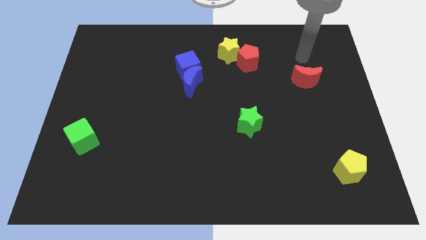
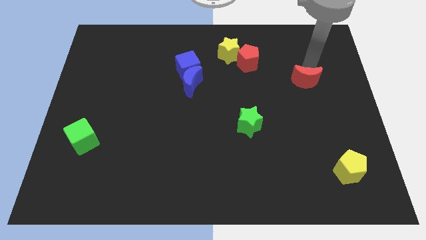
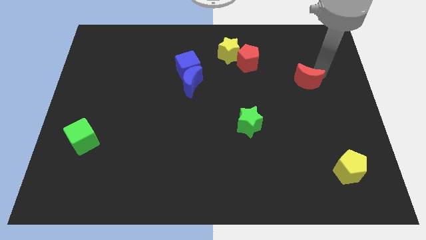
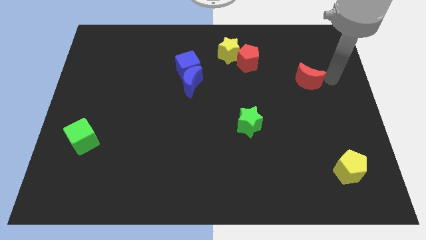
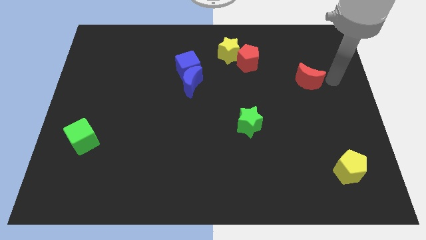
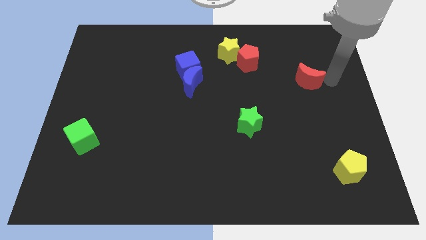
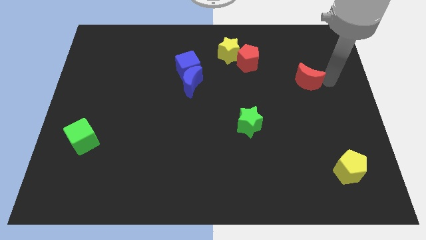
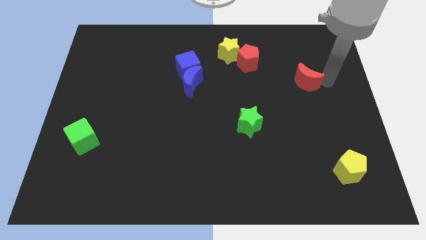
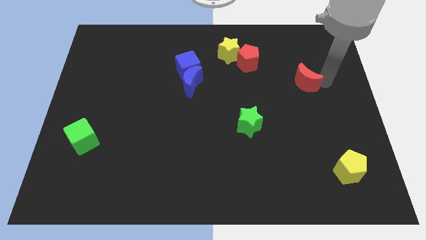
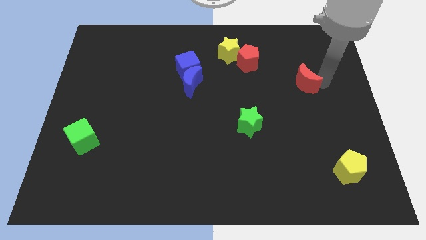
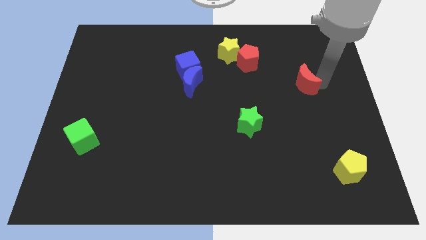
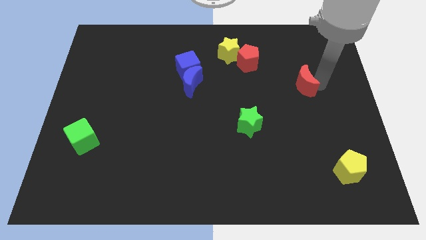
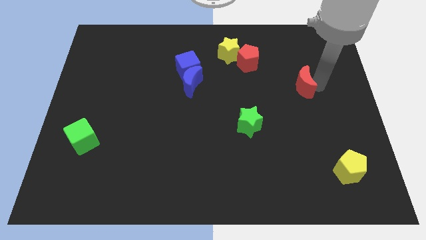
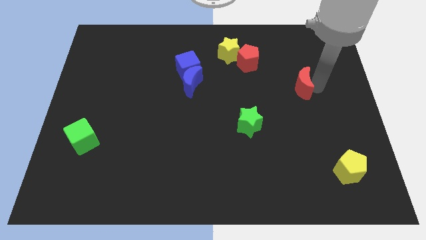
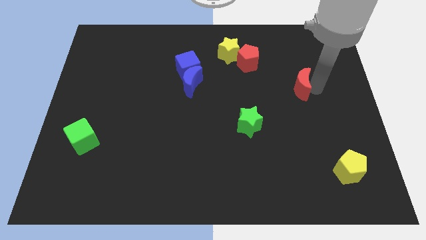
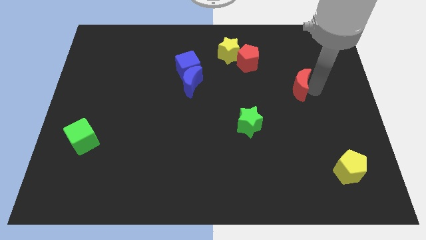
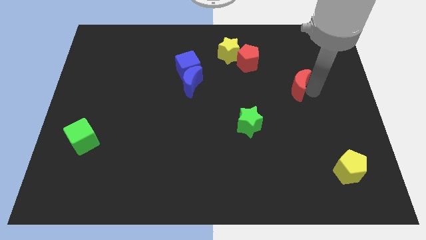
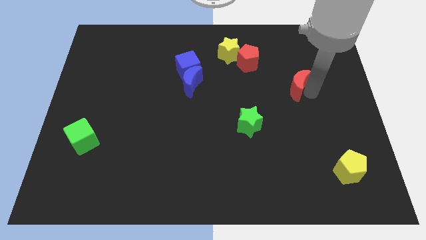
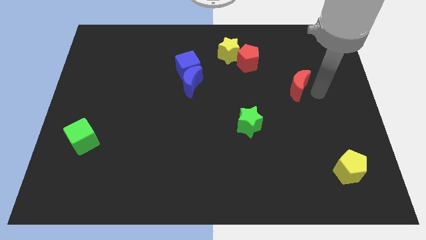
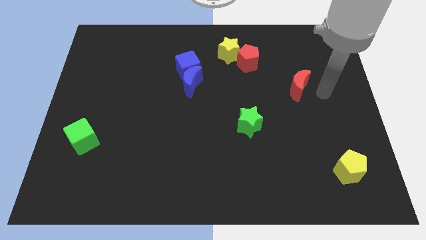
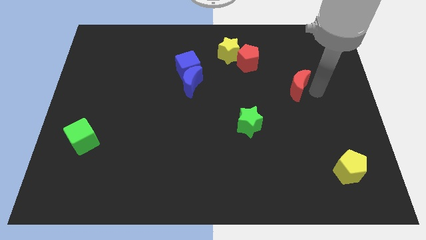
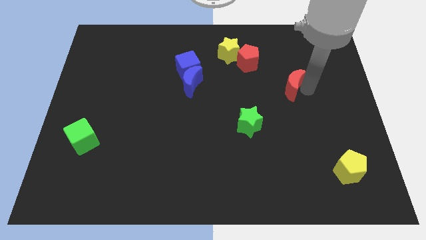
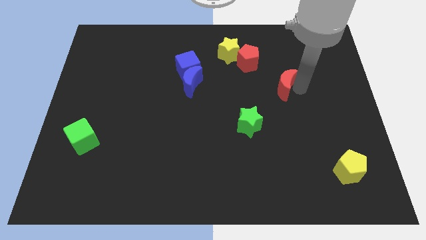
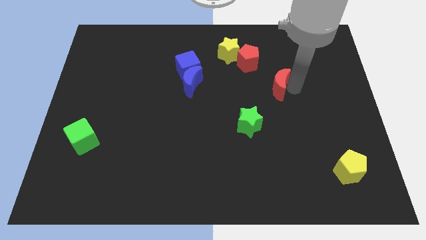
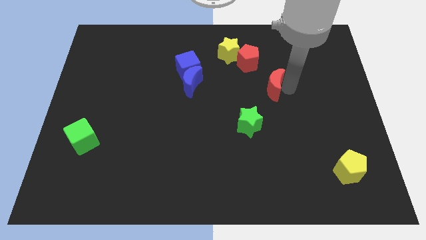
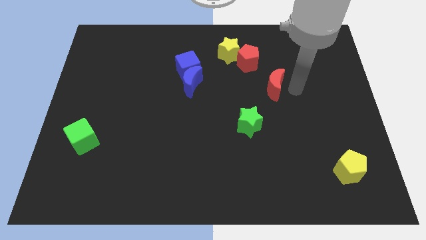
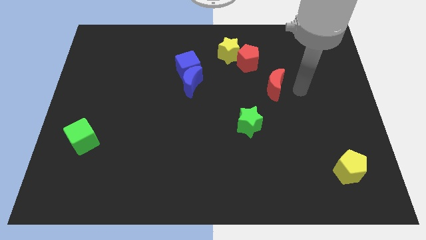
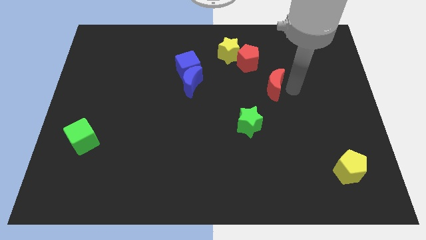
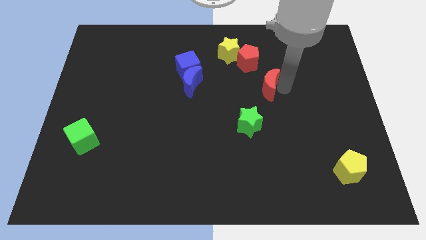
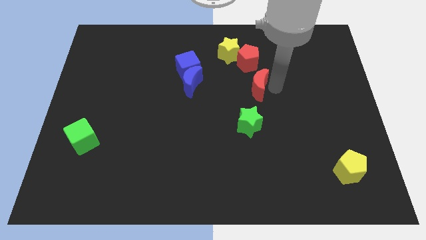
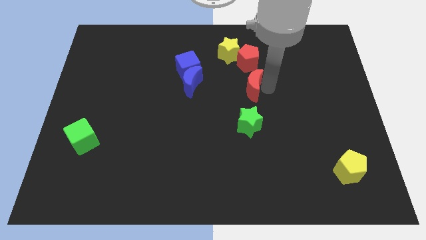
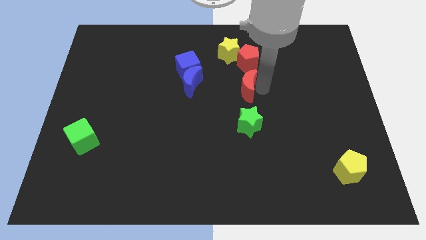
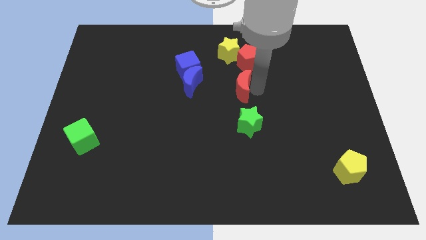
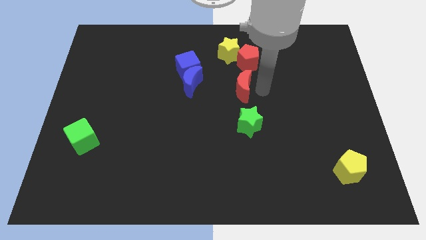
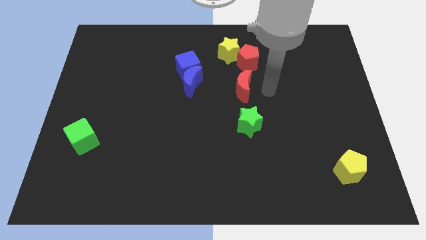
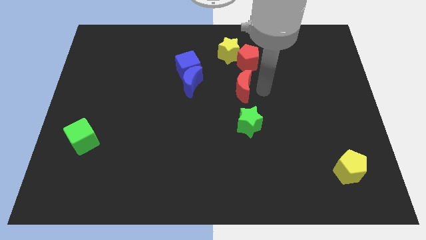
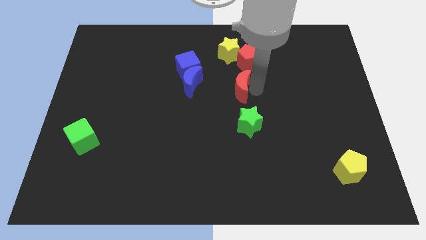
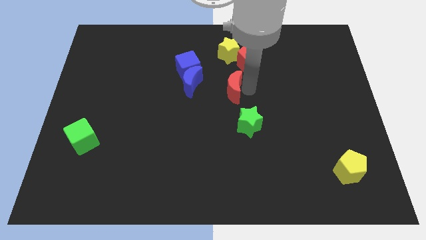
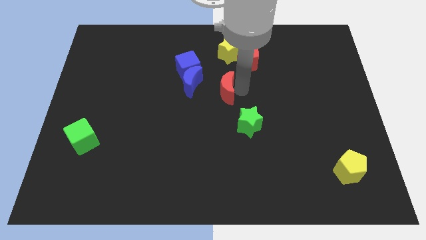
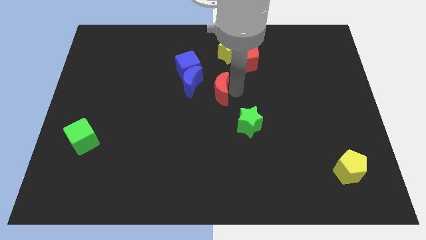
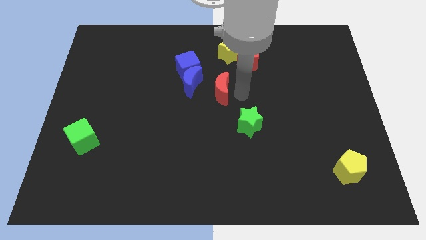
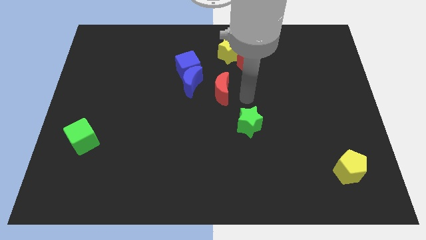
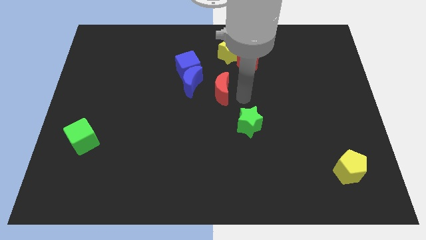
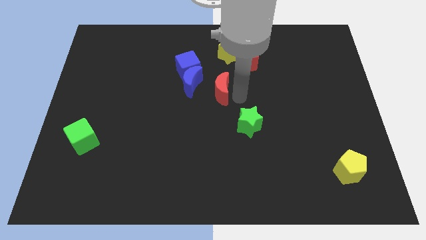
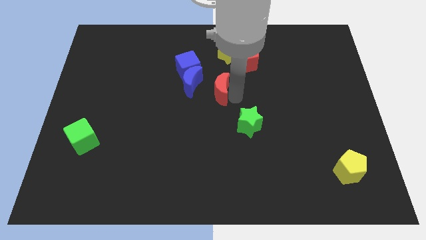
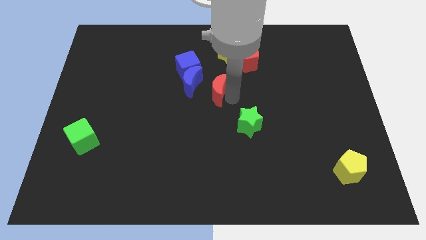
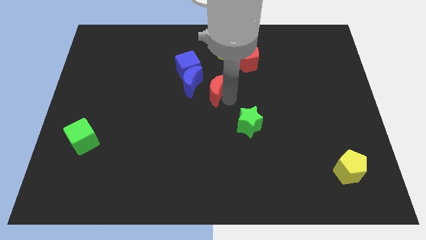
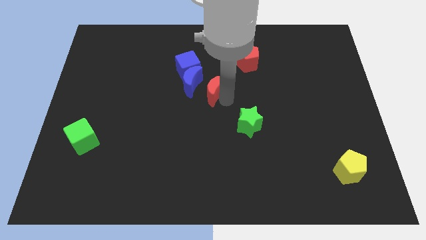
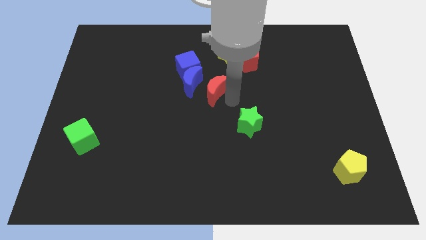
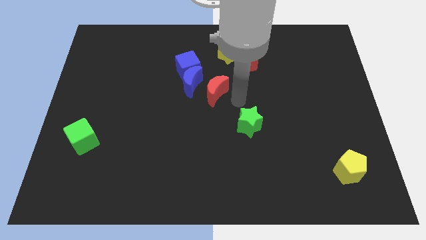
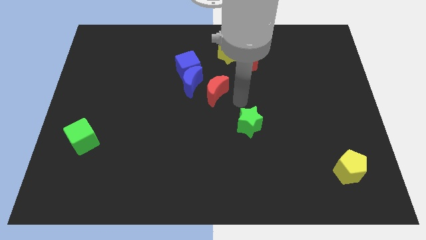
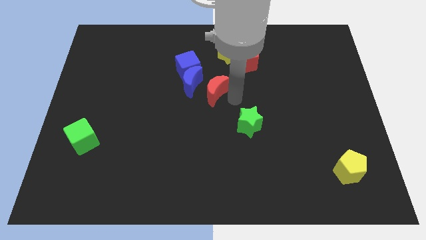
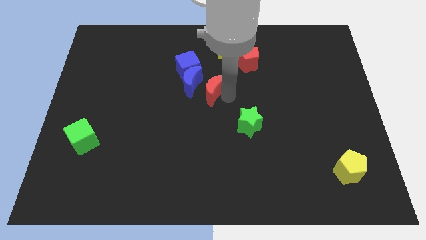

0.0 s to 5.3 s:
push the red moon next to the blue moon

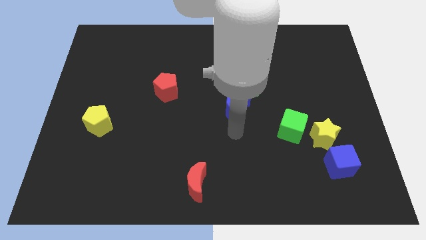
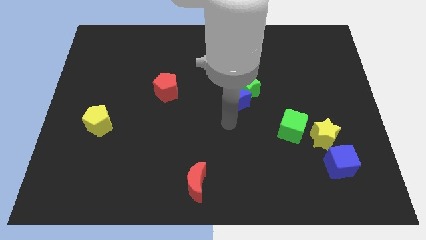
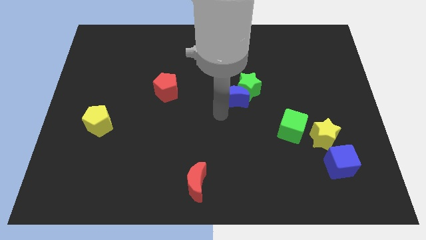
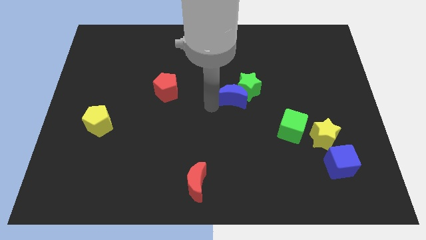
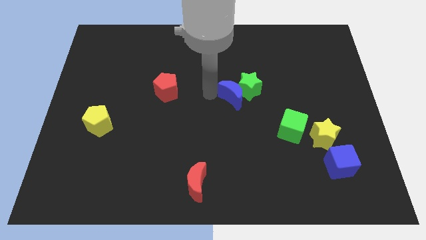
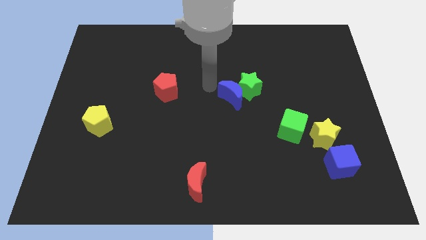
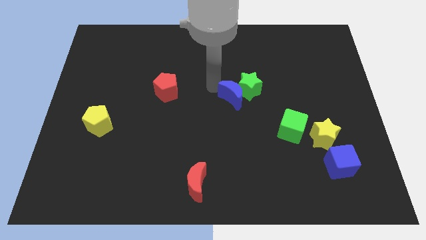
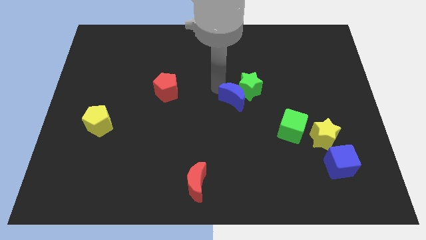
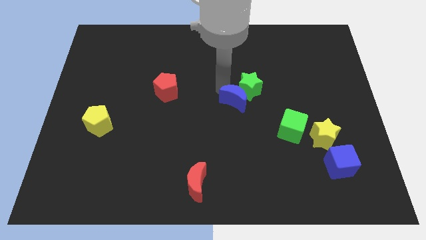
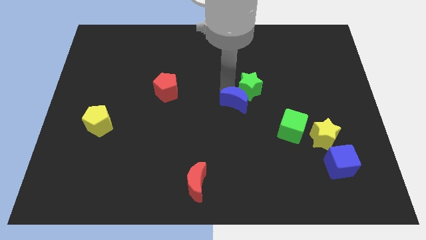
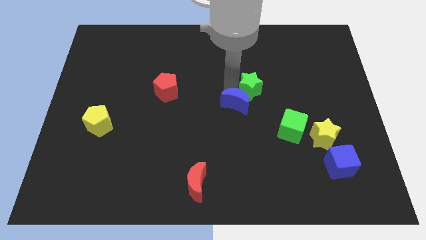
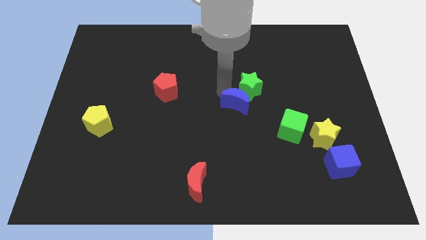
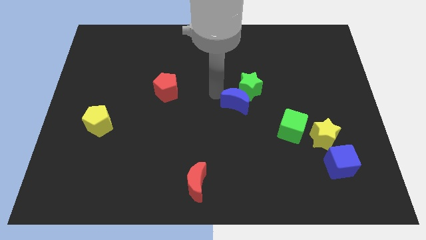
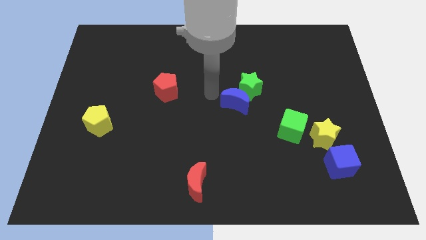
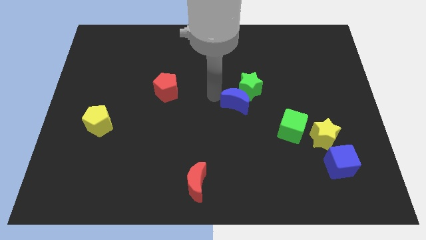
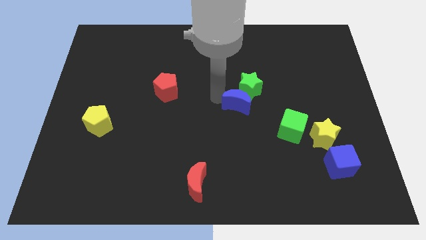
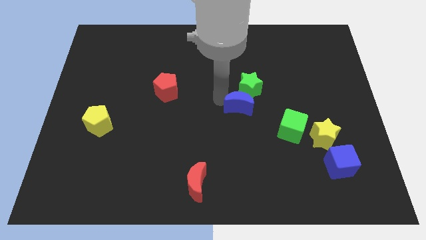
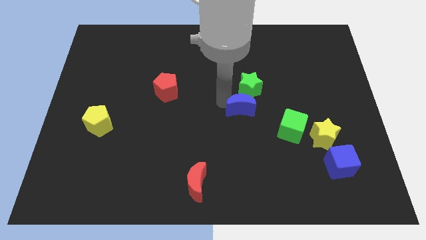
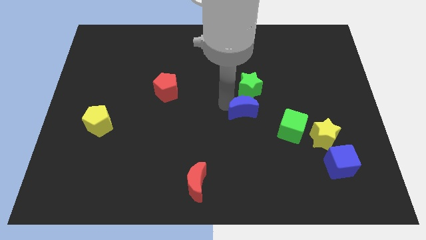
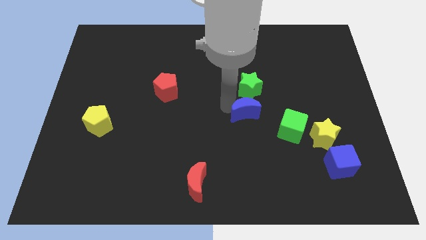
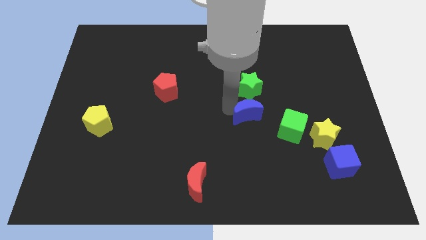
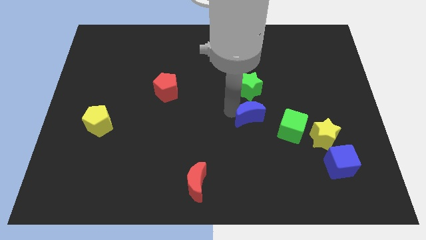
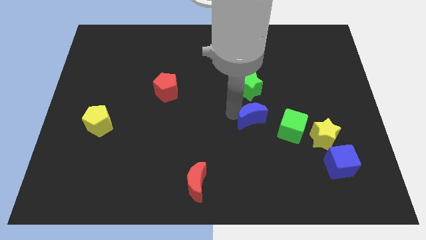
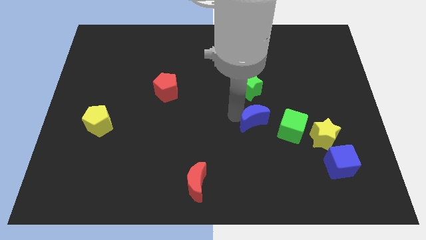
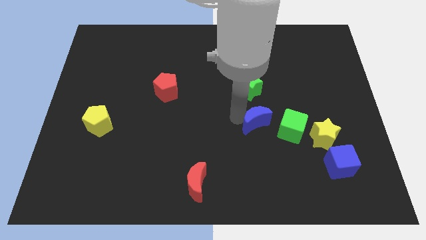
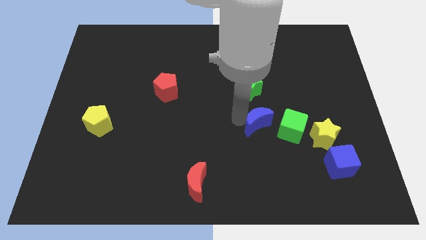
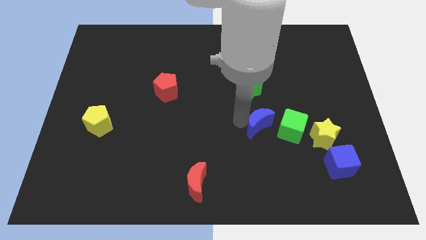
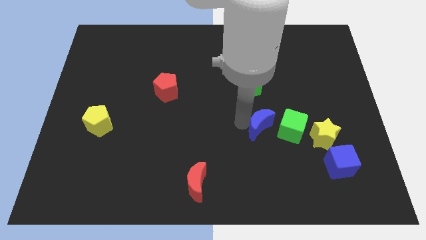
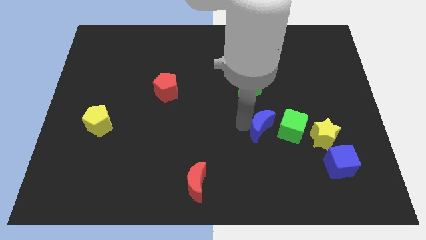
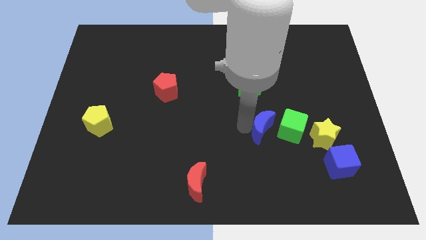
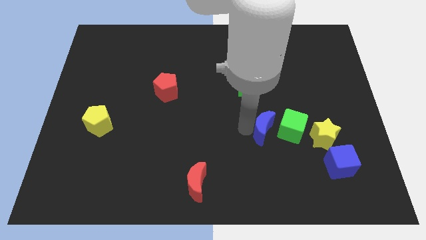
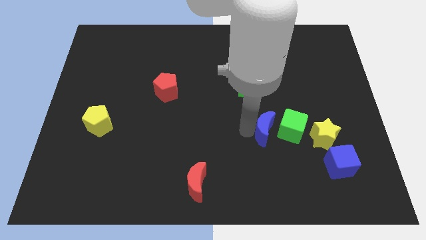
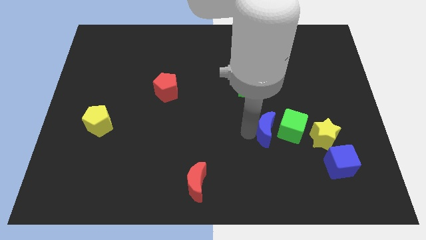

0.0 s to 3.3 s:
put the blue moon next to the green cube
